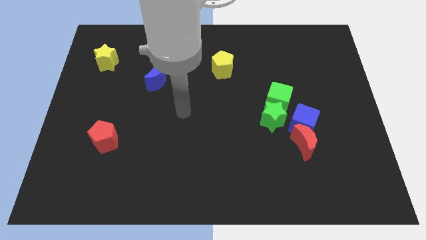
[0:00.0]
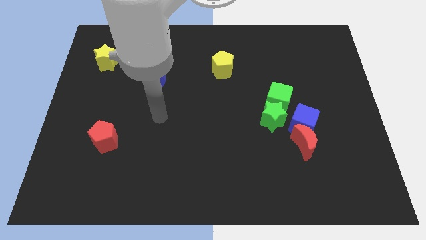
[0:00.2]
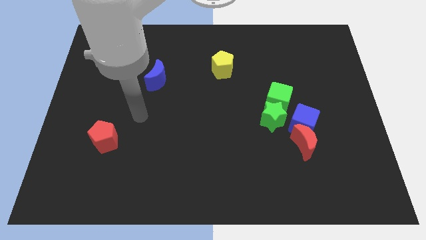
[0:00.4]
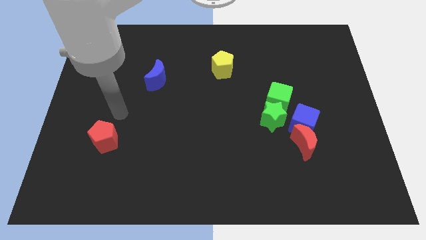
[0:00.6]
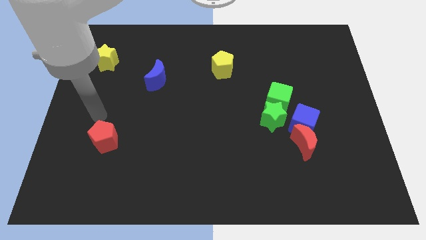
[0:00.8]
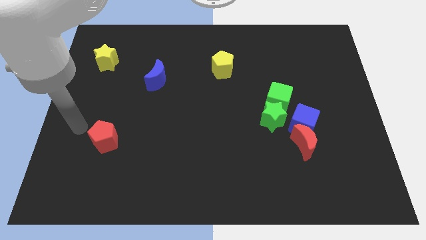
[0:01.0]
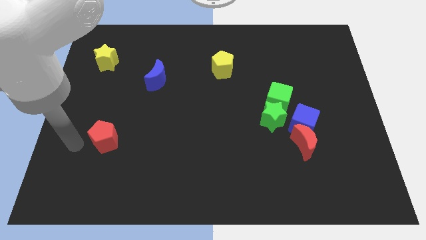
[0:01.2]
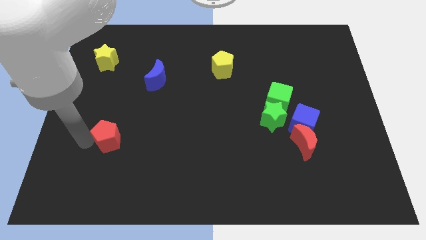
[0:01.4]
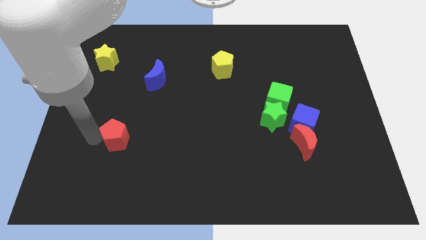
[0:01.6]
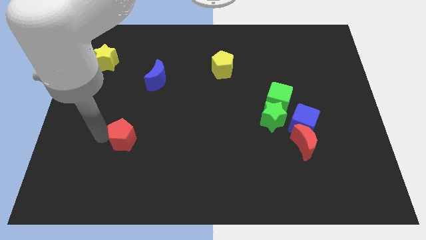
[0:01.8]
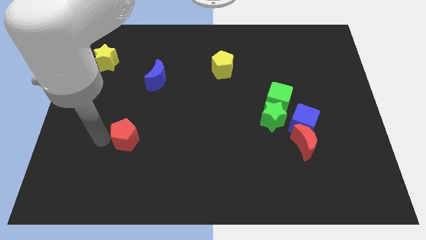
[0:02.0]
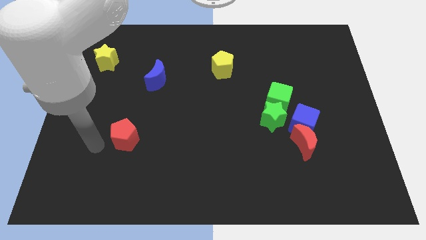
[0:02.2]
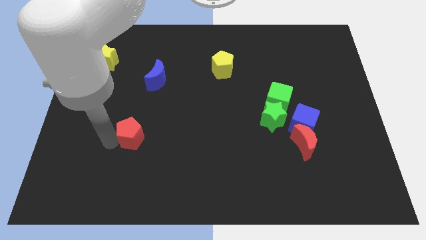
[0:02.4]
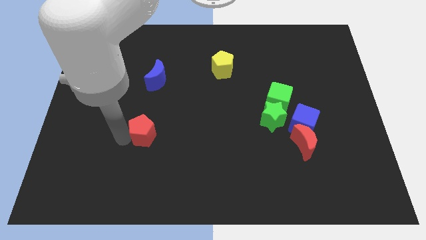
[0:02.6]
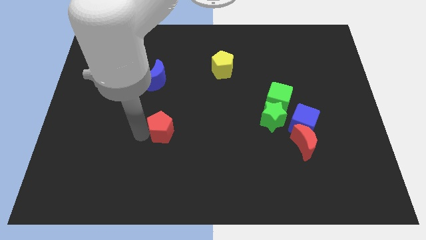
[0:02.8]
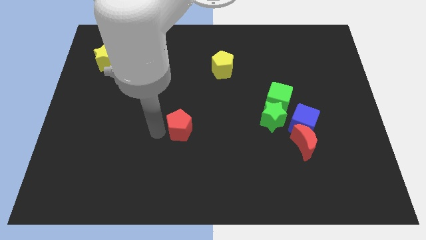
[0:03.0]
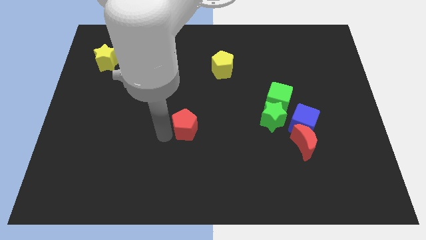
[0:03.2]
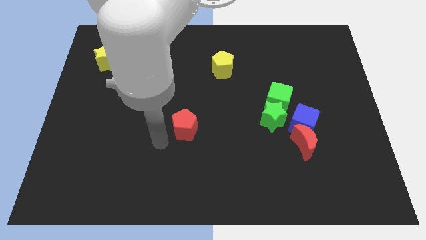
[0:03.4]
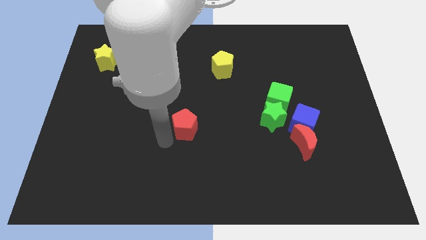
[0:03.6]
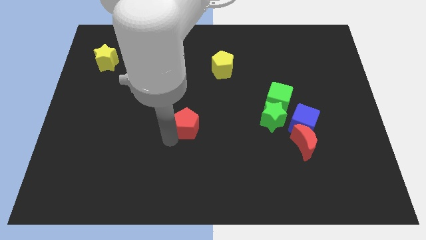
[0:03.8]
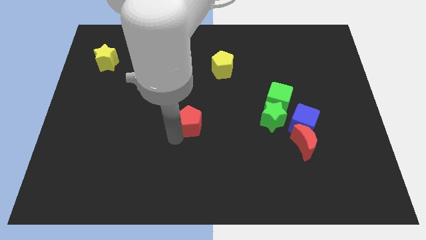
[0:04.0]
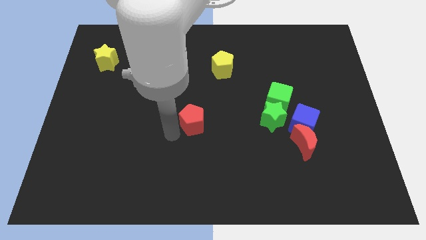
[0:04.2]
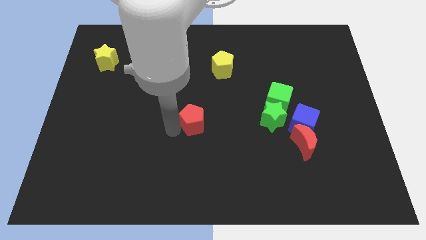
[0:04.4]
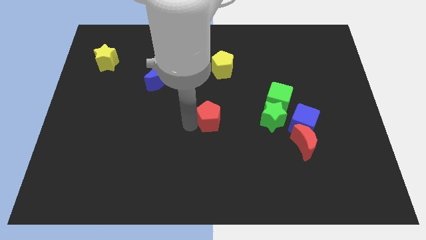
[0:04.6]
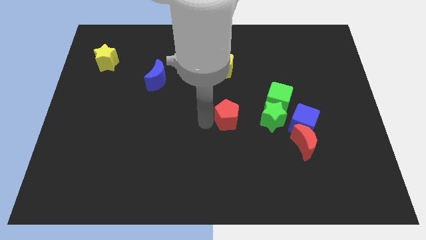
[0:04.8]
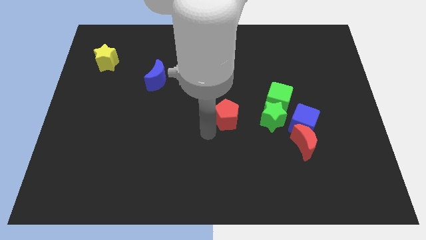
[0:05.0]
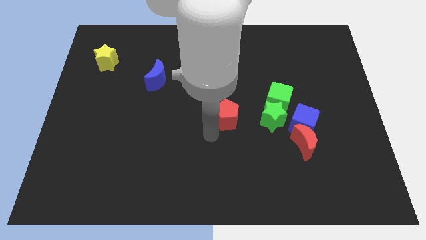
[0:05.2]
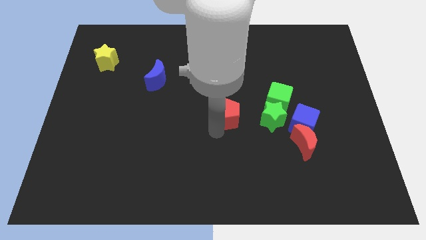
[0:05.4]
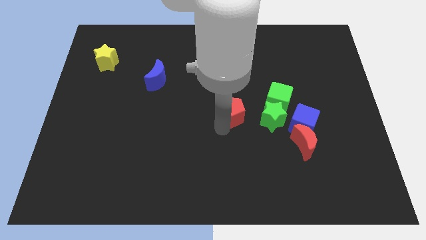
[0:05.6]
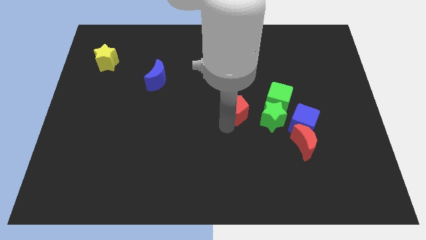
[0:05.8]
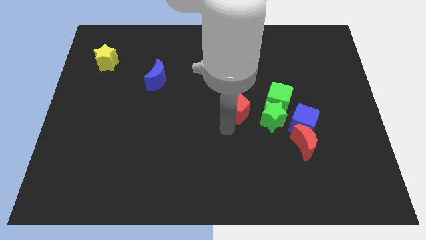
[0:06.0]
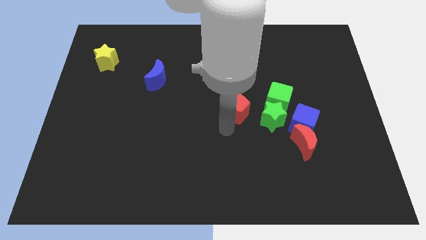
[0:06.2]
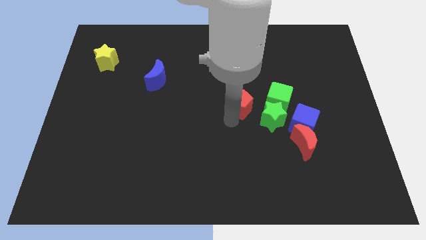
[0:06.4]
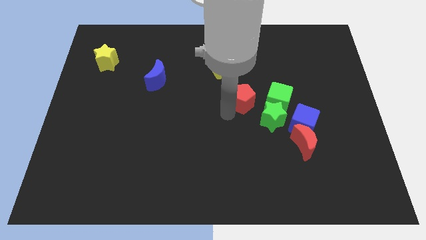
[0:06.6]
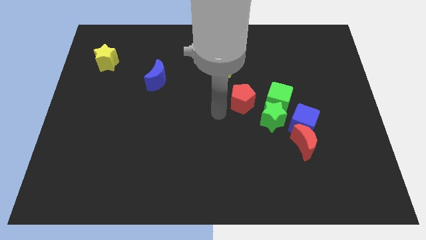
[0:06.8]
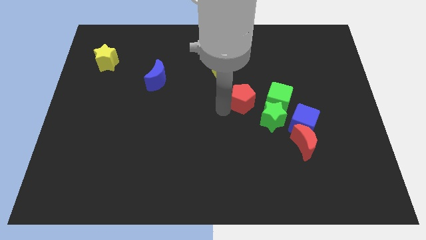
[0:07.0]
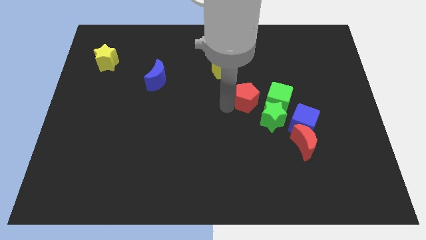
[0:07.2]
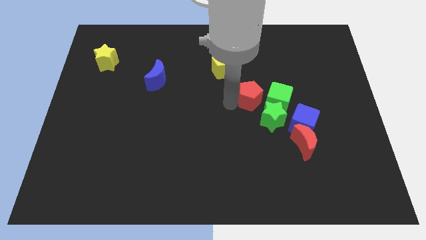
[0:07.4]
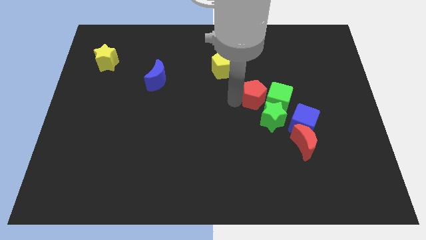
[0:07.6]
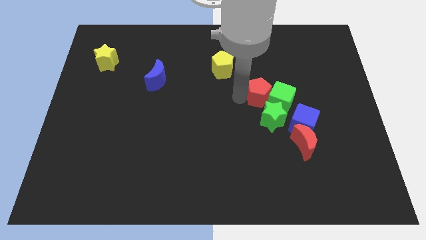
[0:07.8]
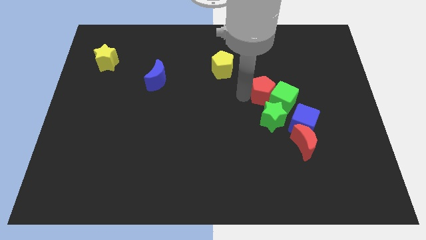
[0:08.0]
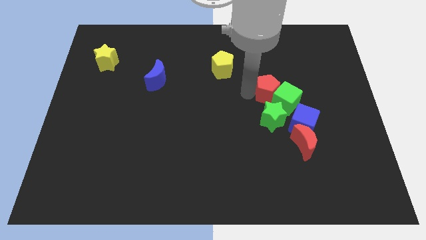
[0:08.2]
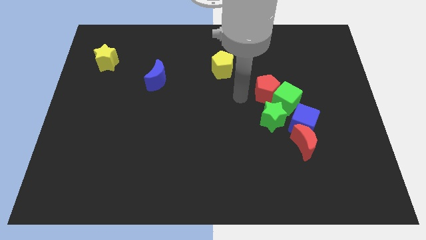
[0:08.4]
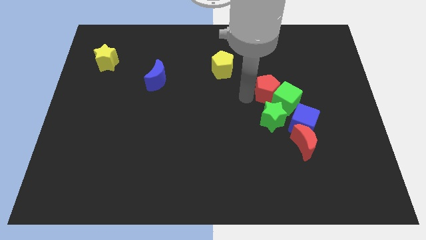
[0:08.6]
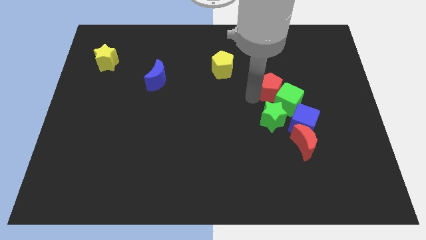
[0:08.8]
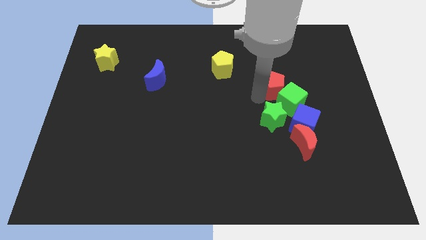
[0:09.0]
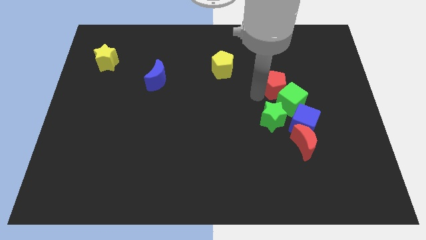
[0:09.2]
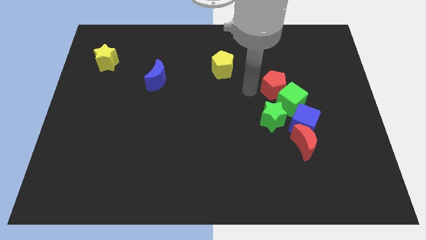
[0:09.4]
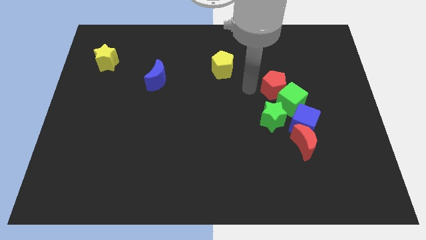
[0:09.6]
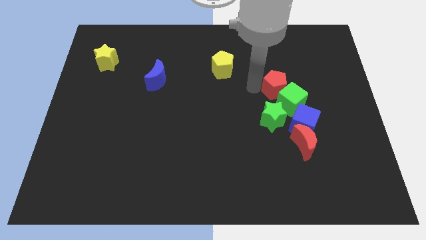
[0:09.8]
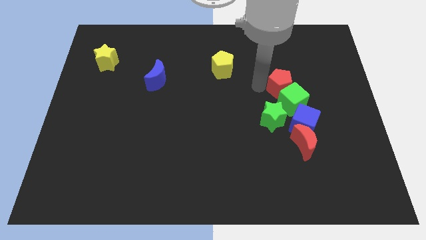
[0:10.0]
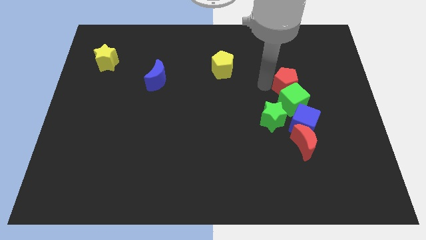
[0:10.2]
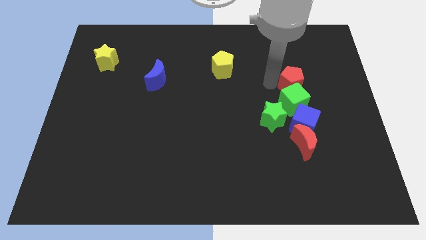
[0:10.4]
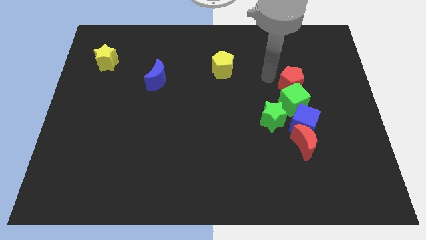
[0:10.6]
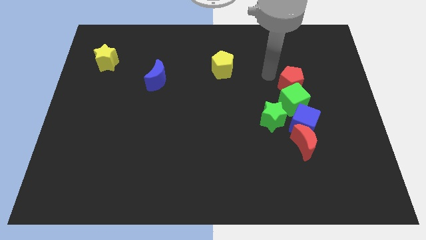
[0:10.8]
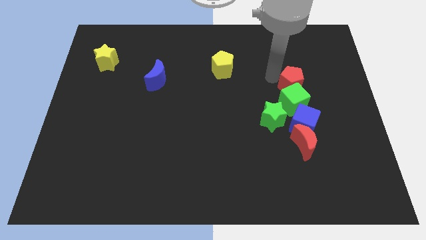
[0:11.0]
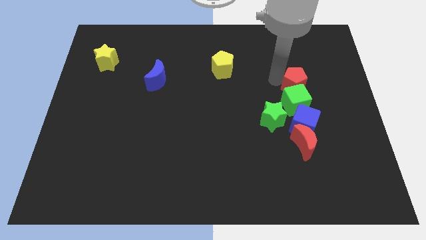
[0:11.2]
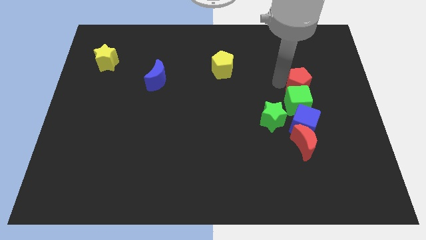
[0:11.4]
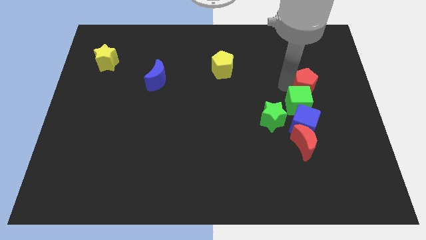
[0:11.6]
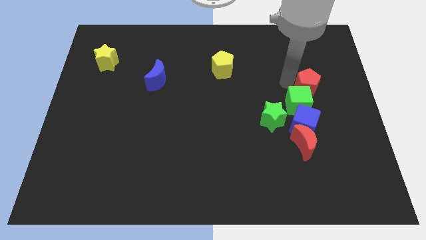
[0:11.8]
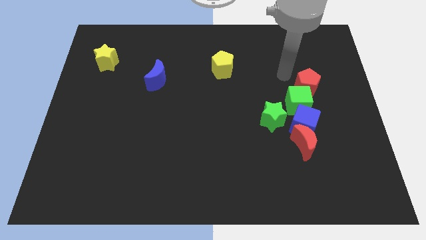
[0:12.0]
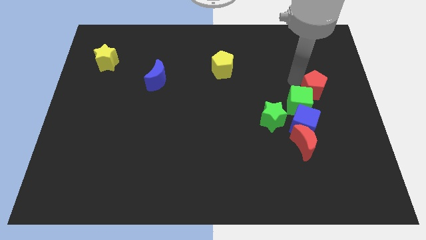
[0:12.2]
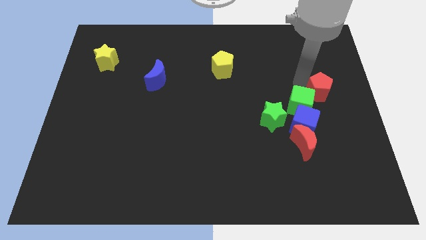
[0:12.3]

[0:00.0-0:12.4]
push the red pentagon to the center right

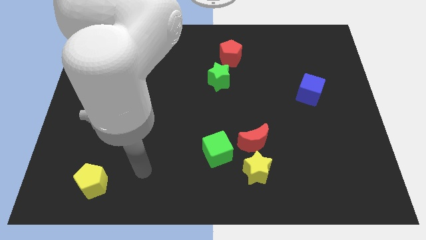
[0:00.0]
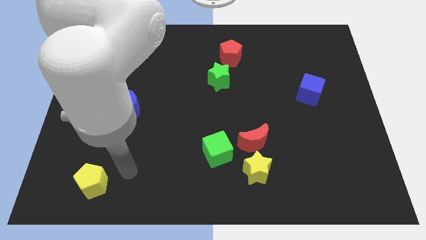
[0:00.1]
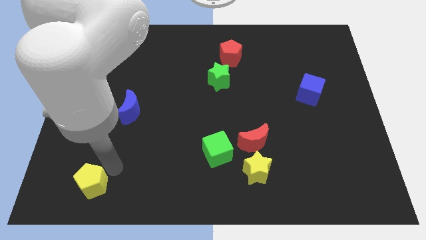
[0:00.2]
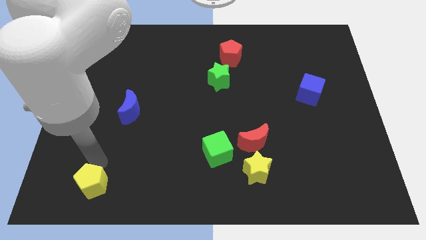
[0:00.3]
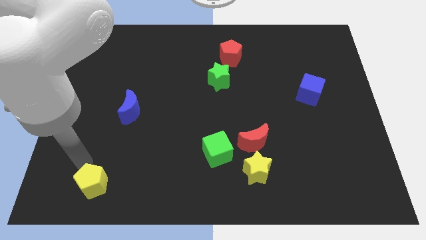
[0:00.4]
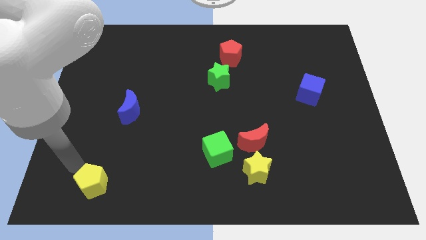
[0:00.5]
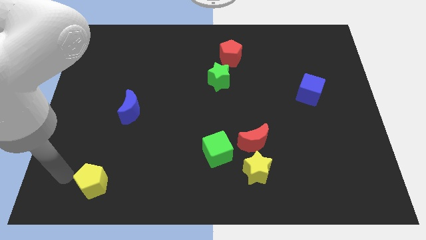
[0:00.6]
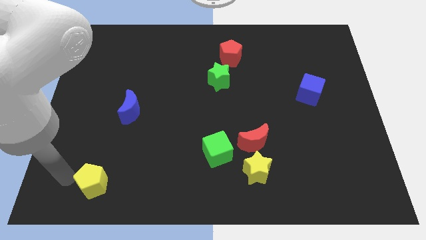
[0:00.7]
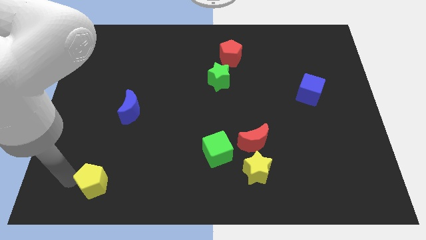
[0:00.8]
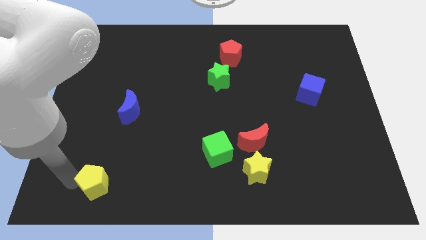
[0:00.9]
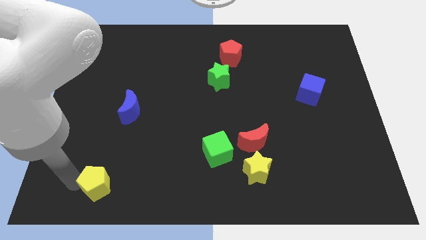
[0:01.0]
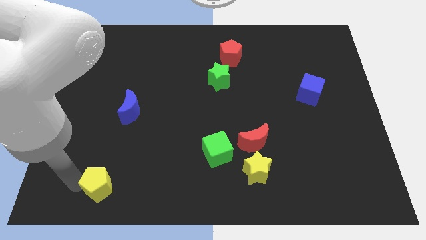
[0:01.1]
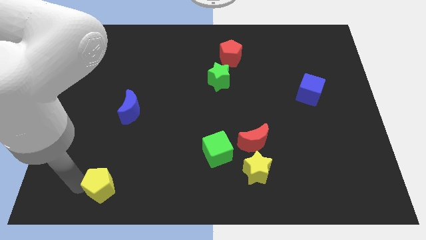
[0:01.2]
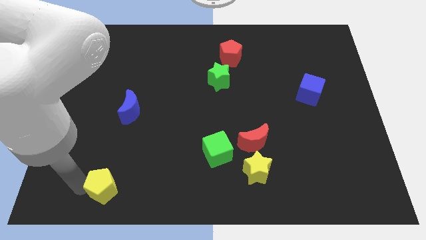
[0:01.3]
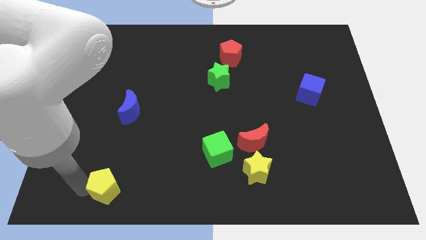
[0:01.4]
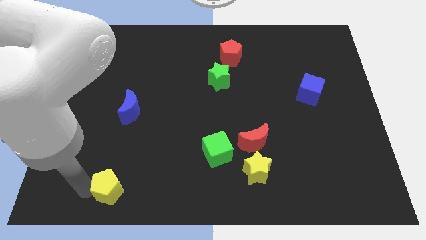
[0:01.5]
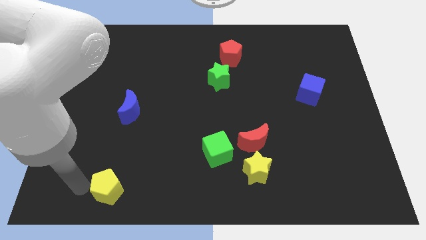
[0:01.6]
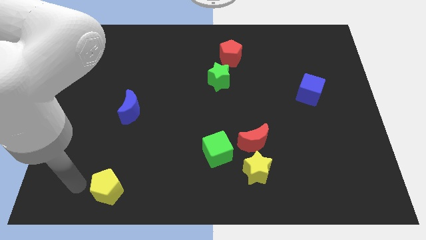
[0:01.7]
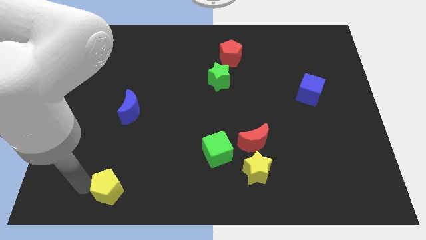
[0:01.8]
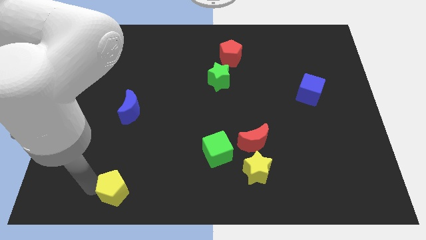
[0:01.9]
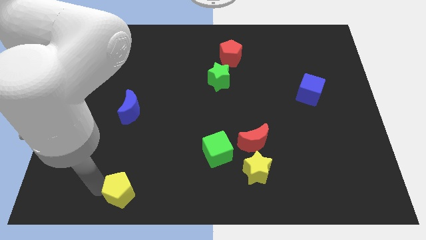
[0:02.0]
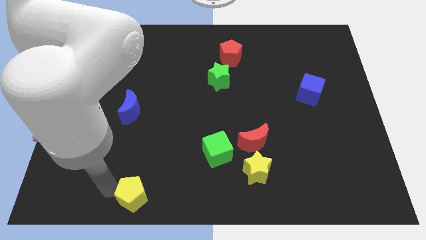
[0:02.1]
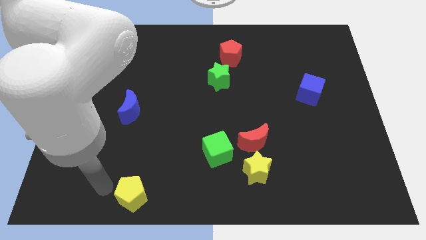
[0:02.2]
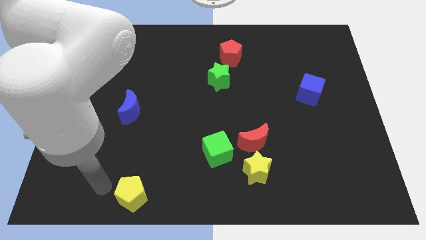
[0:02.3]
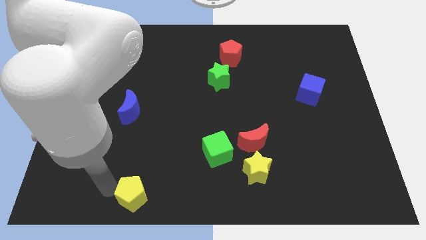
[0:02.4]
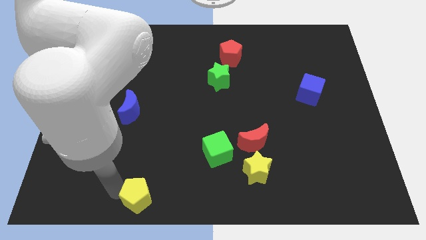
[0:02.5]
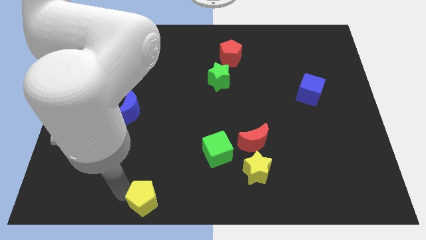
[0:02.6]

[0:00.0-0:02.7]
slide the yellow pentagon to the bottom
